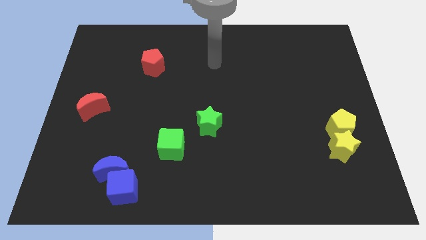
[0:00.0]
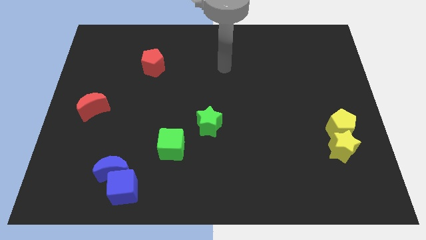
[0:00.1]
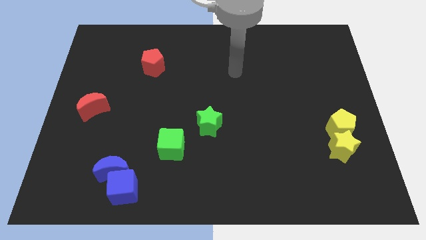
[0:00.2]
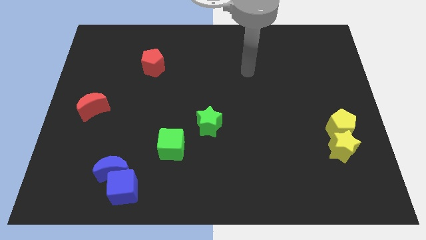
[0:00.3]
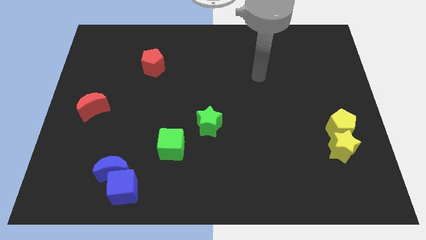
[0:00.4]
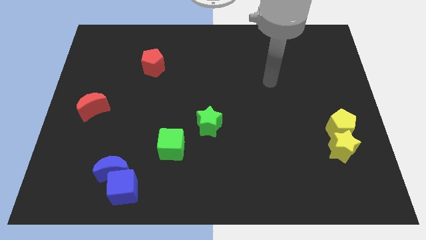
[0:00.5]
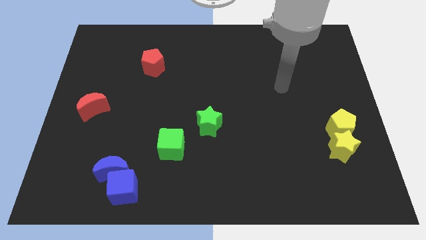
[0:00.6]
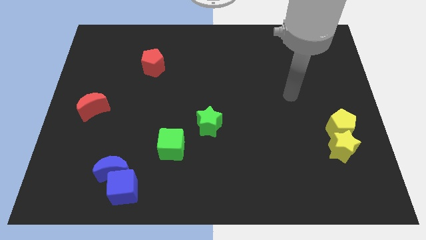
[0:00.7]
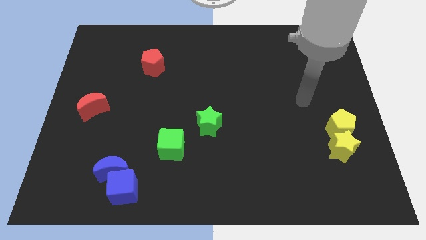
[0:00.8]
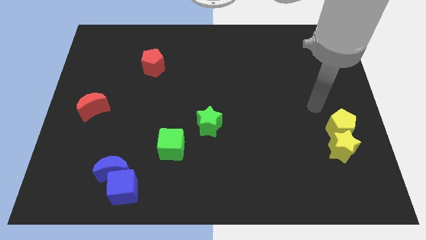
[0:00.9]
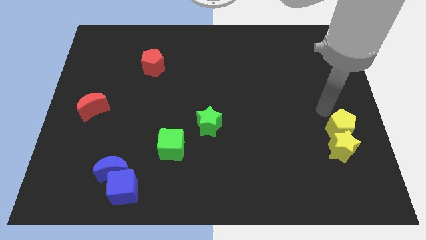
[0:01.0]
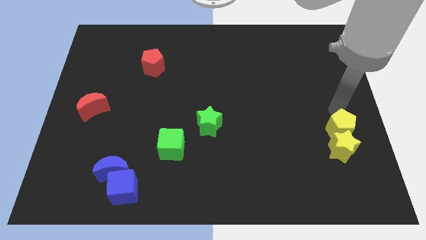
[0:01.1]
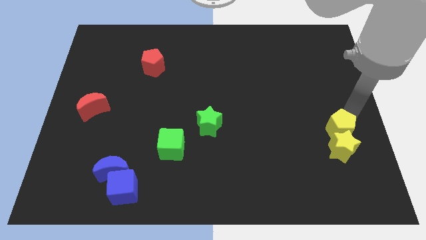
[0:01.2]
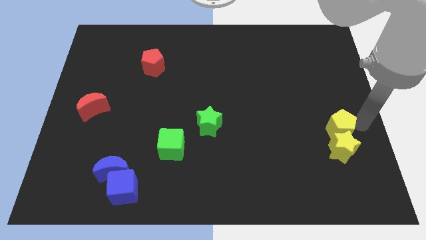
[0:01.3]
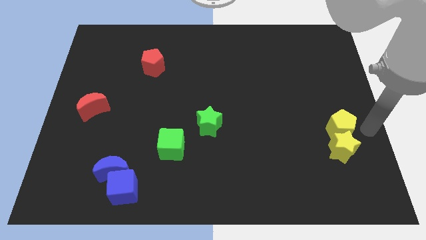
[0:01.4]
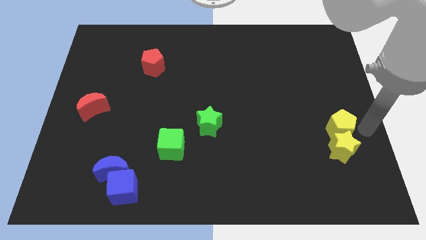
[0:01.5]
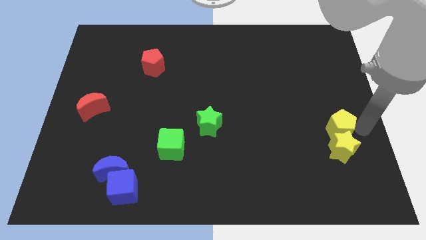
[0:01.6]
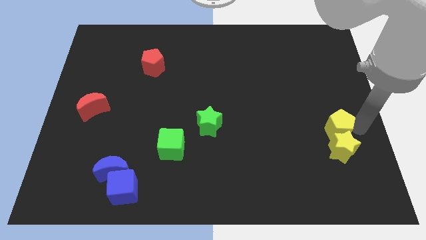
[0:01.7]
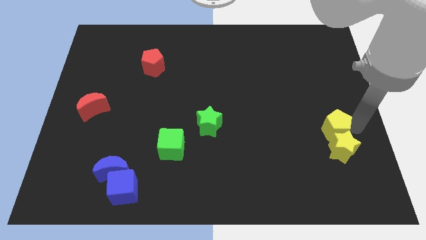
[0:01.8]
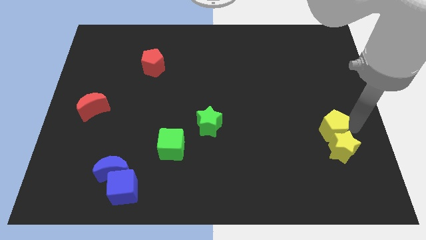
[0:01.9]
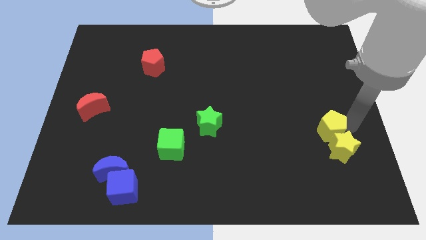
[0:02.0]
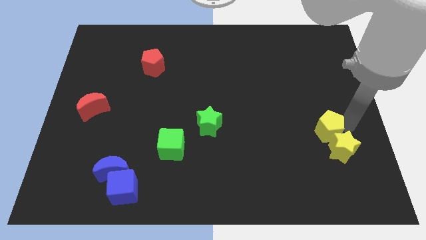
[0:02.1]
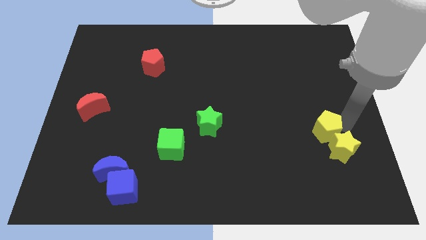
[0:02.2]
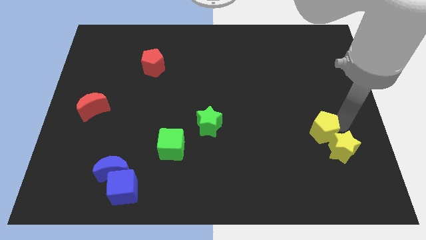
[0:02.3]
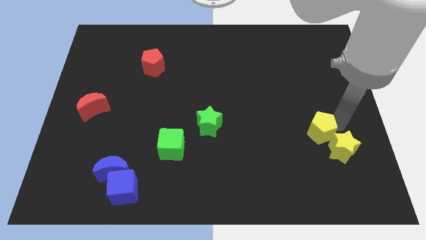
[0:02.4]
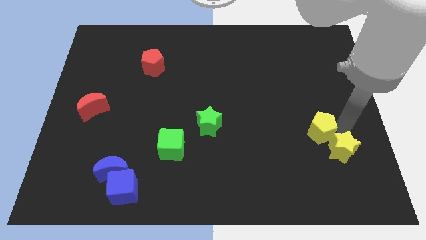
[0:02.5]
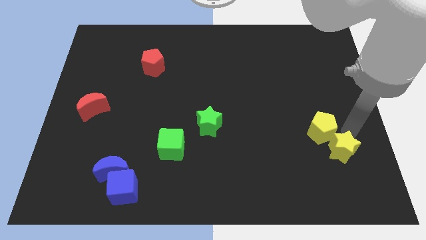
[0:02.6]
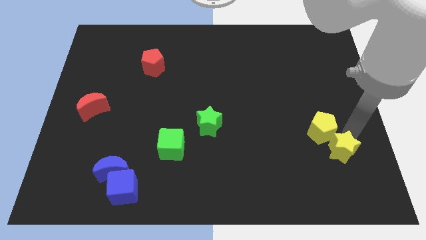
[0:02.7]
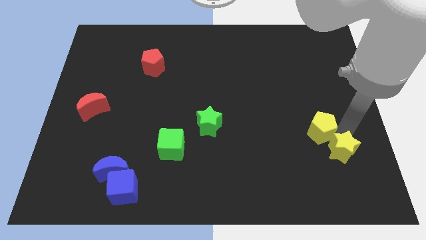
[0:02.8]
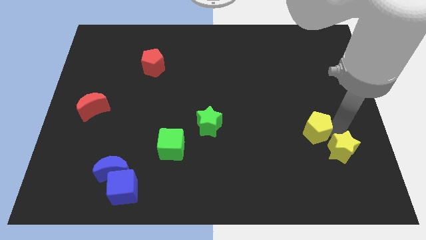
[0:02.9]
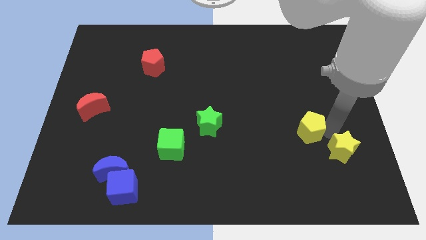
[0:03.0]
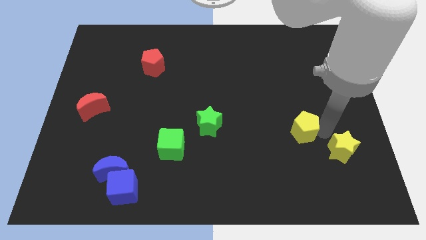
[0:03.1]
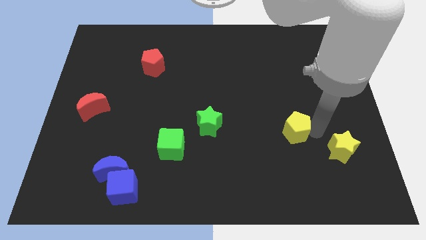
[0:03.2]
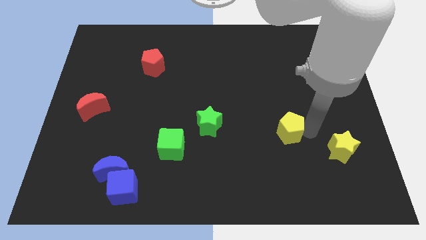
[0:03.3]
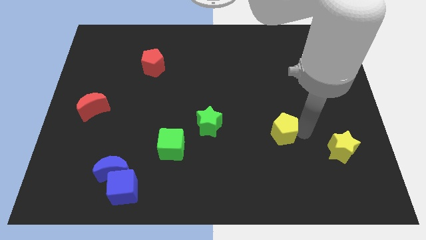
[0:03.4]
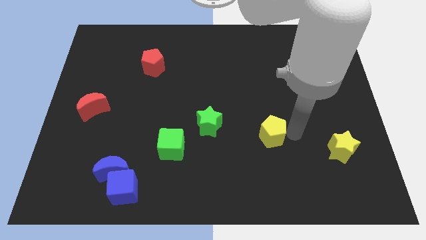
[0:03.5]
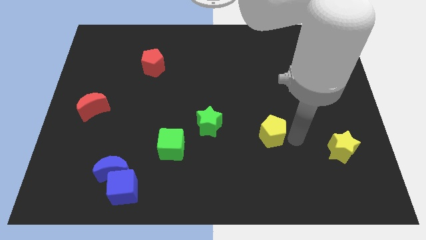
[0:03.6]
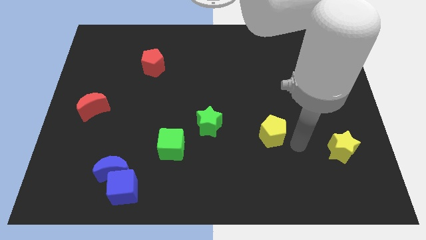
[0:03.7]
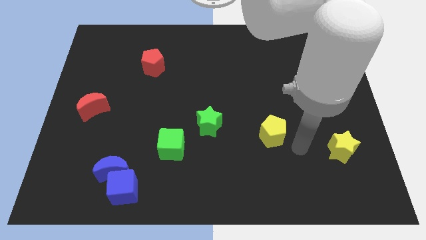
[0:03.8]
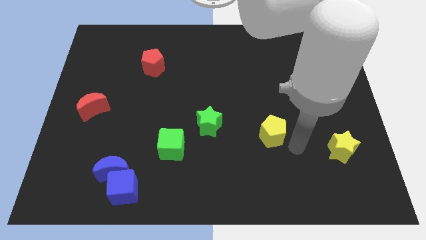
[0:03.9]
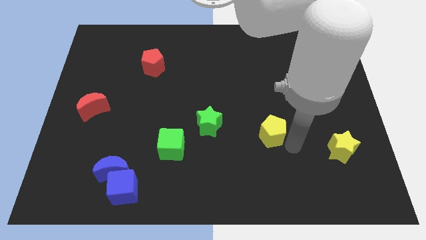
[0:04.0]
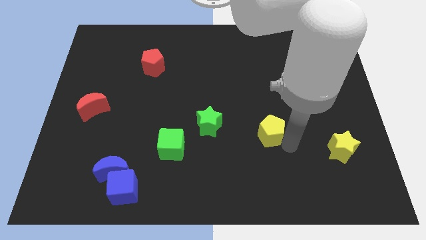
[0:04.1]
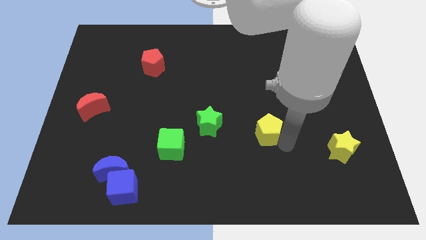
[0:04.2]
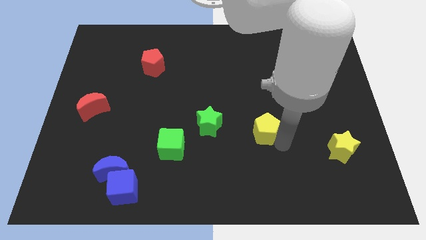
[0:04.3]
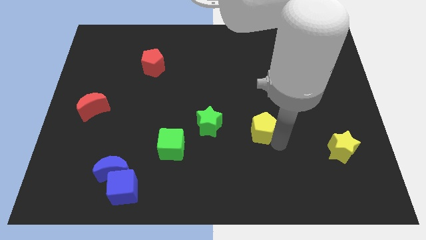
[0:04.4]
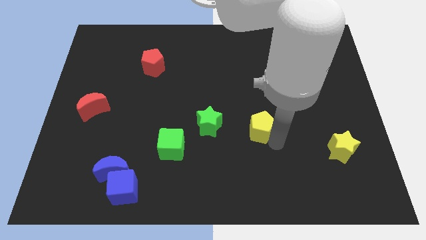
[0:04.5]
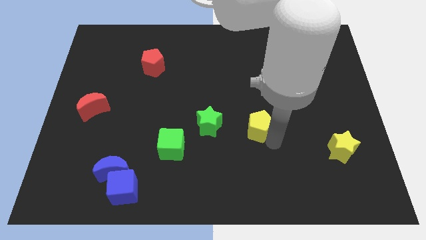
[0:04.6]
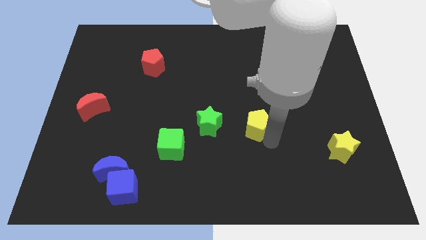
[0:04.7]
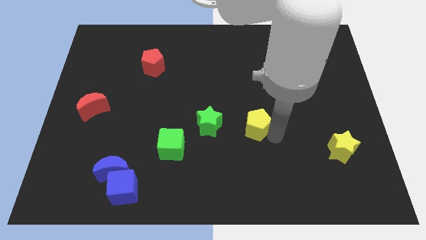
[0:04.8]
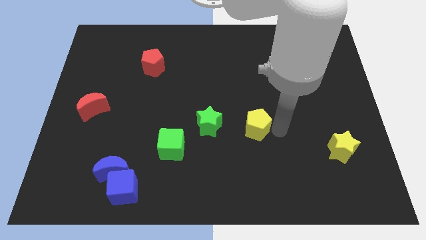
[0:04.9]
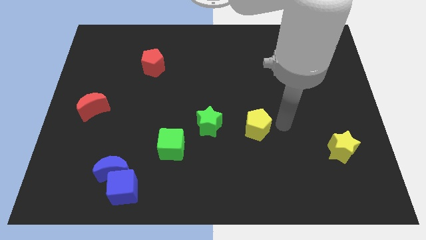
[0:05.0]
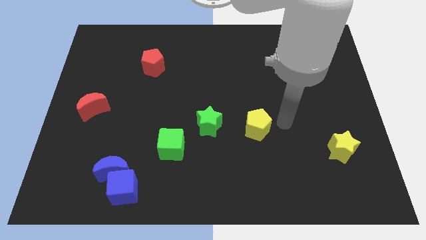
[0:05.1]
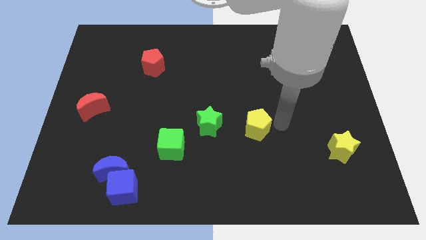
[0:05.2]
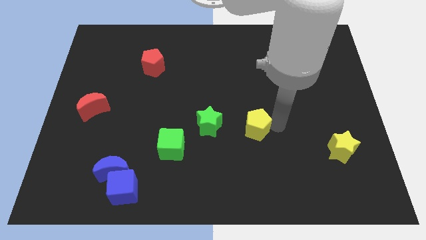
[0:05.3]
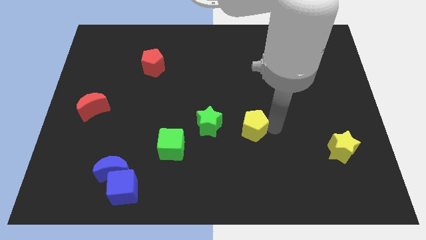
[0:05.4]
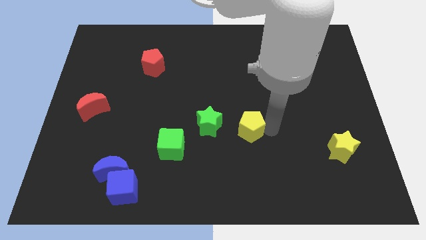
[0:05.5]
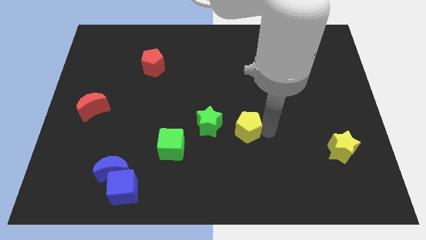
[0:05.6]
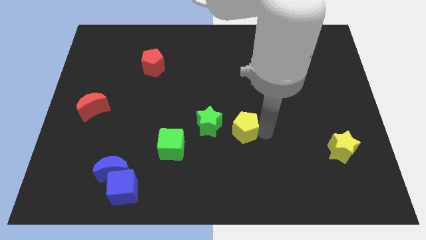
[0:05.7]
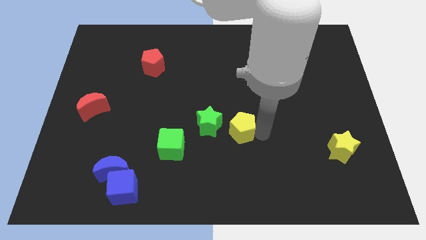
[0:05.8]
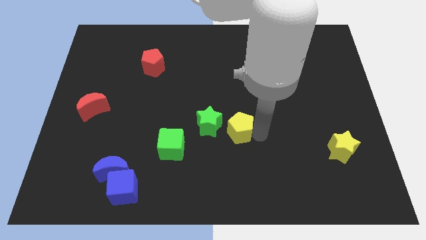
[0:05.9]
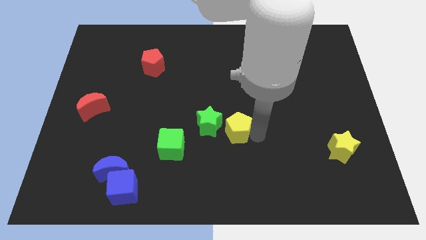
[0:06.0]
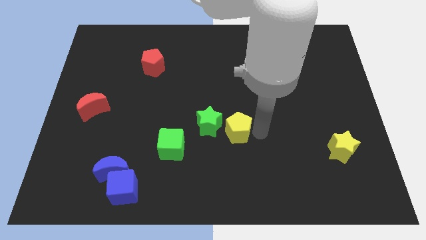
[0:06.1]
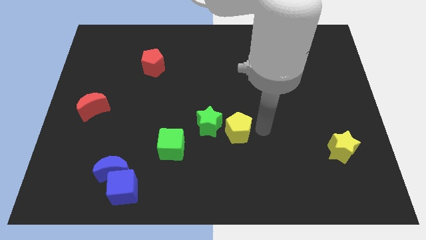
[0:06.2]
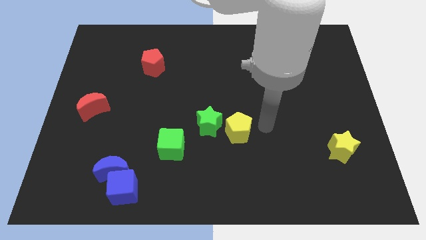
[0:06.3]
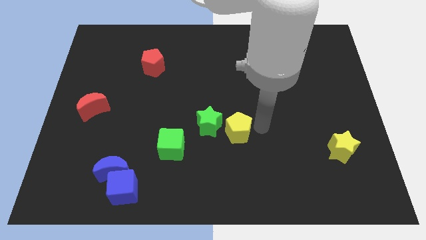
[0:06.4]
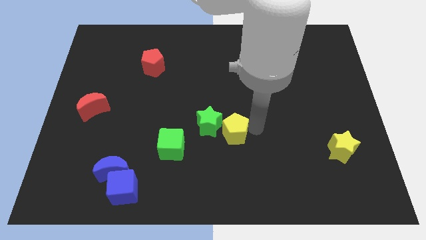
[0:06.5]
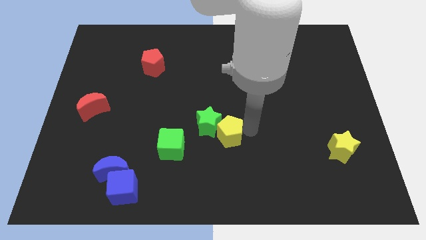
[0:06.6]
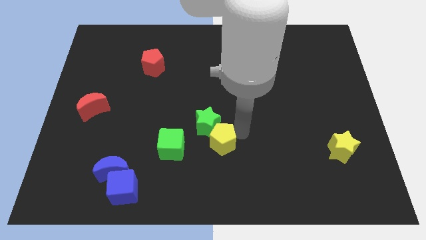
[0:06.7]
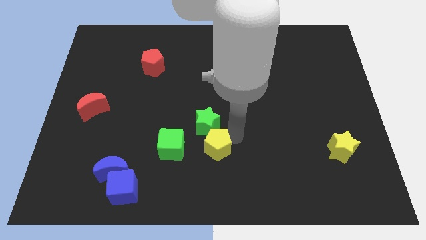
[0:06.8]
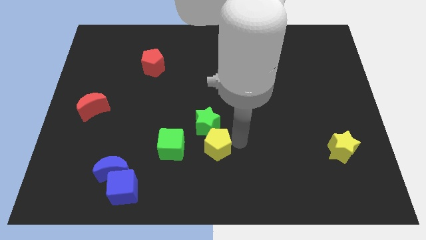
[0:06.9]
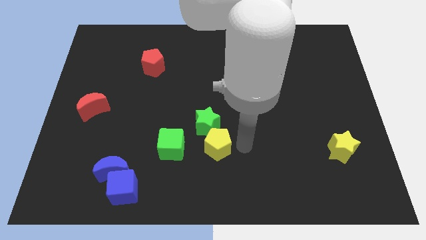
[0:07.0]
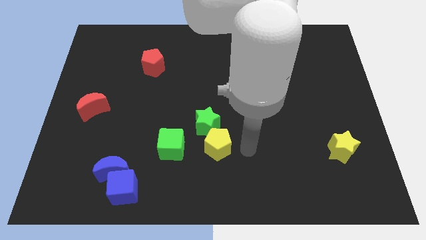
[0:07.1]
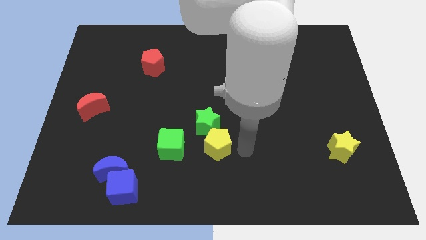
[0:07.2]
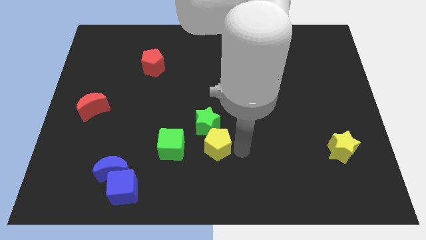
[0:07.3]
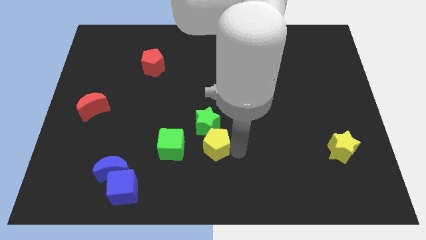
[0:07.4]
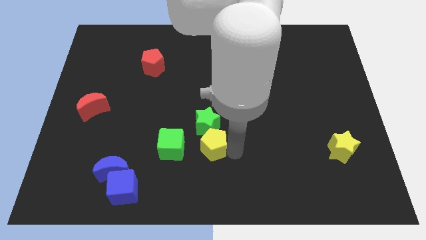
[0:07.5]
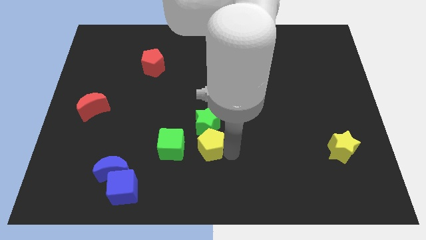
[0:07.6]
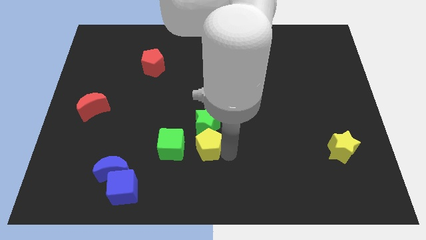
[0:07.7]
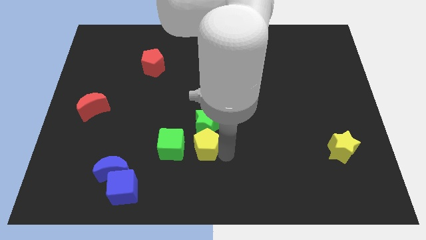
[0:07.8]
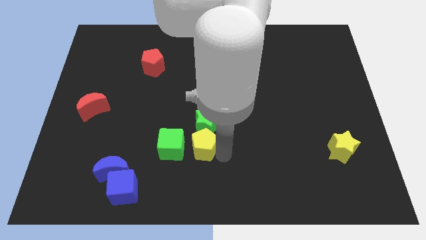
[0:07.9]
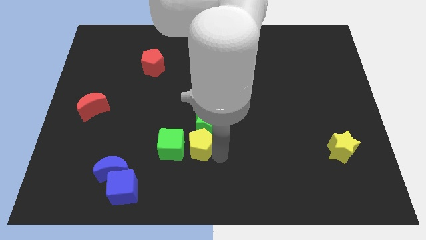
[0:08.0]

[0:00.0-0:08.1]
move the yellow pentagon to the green cube
